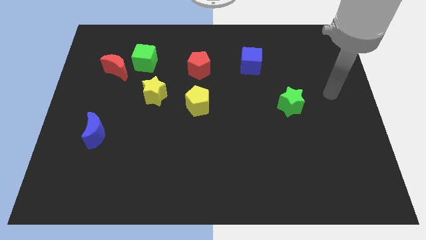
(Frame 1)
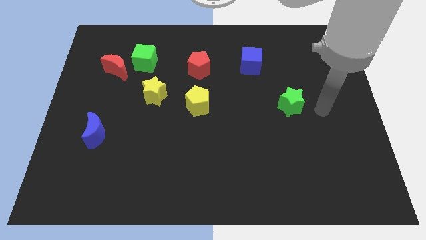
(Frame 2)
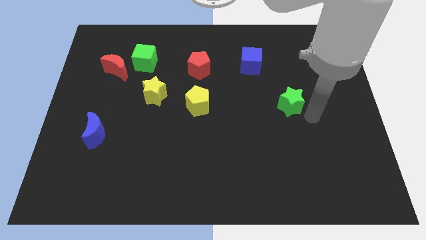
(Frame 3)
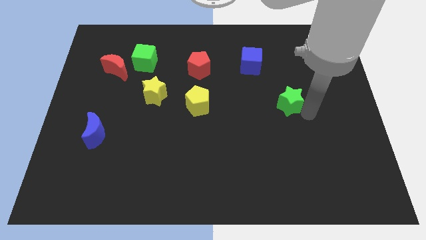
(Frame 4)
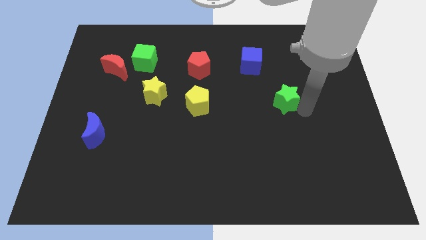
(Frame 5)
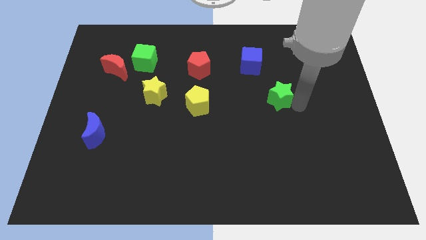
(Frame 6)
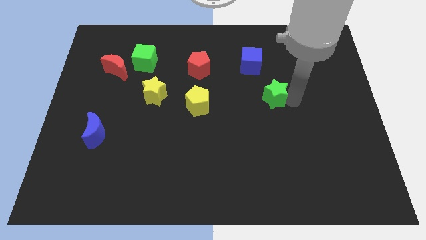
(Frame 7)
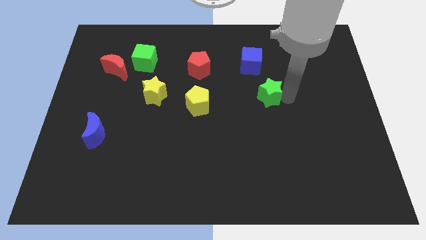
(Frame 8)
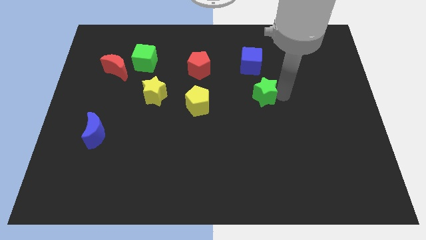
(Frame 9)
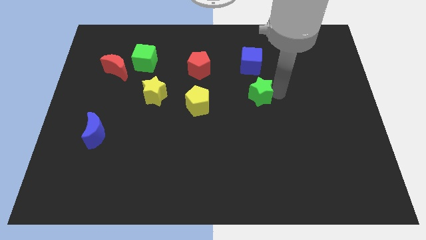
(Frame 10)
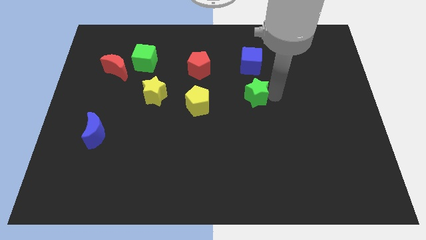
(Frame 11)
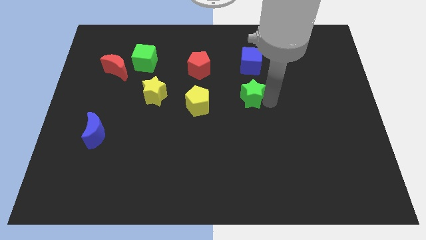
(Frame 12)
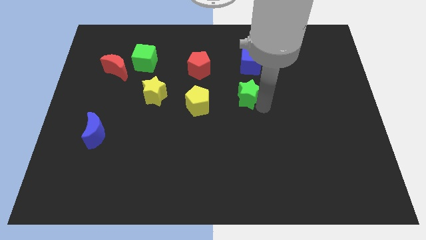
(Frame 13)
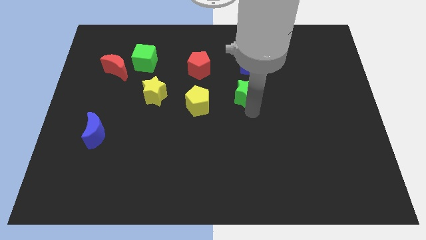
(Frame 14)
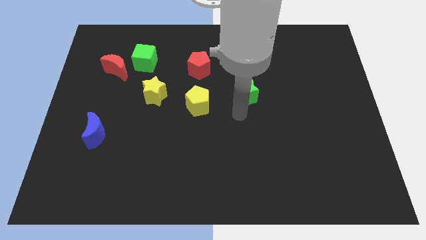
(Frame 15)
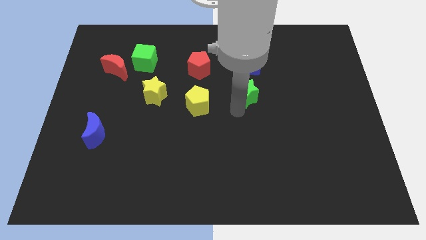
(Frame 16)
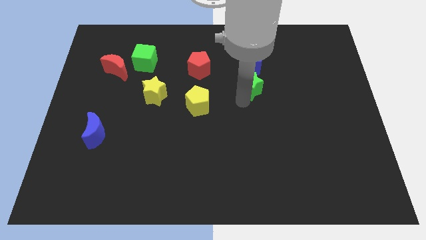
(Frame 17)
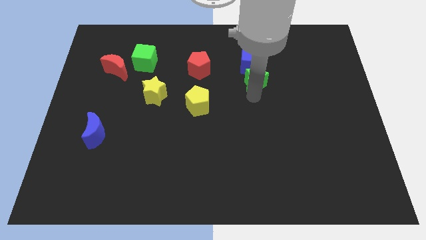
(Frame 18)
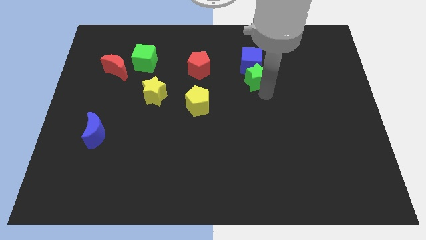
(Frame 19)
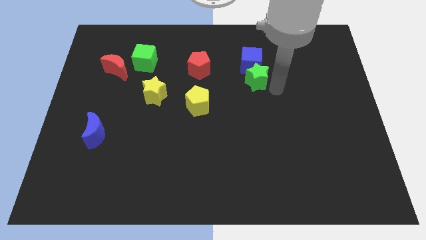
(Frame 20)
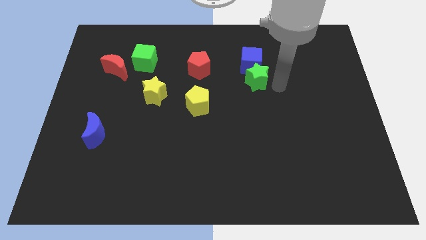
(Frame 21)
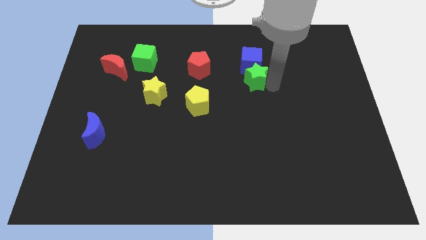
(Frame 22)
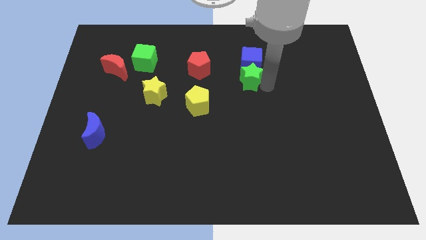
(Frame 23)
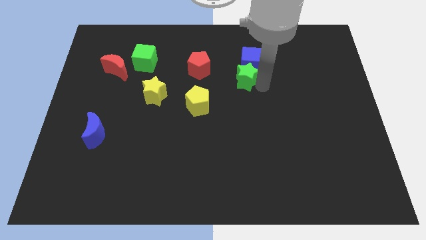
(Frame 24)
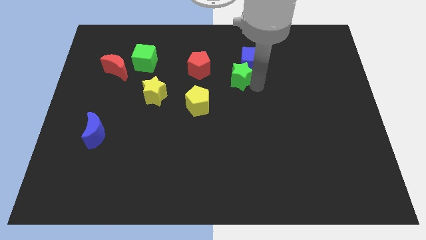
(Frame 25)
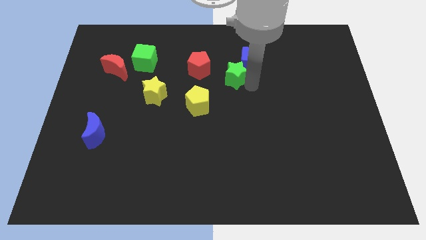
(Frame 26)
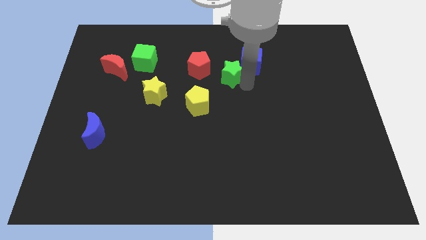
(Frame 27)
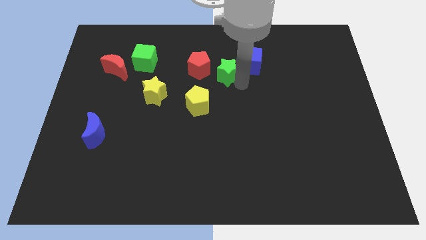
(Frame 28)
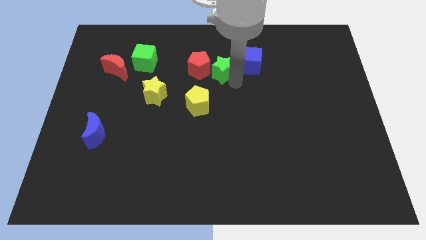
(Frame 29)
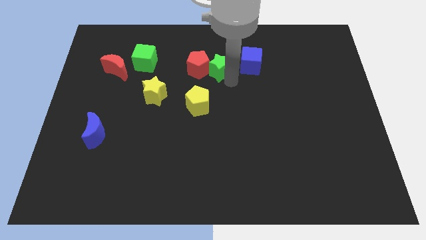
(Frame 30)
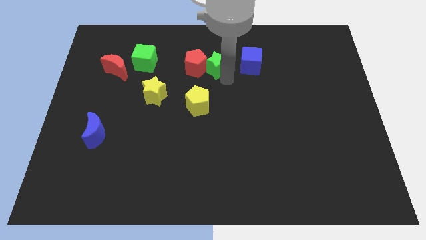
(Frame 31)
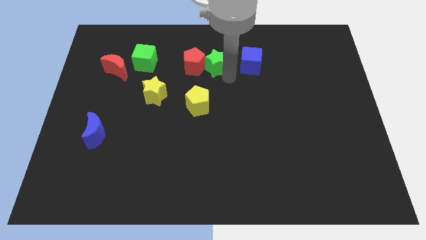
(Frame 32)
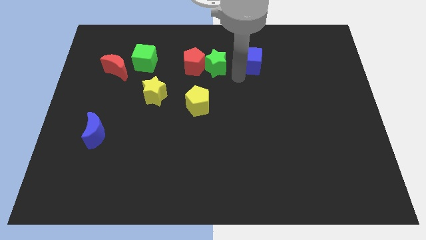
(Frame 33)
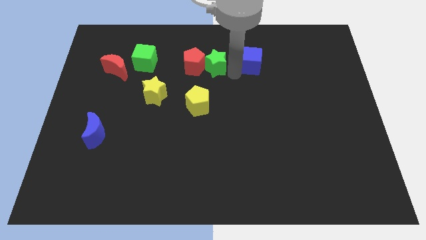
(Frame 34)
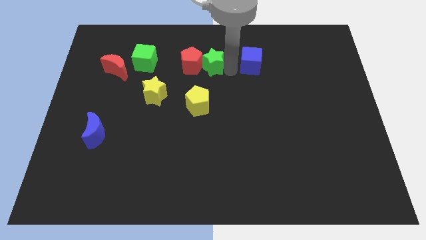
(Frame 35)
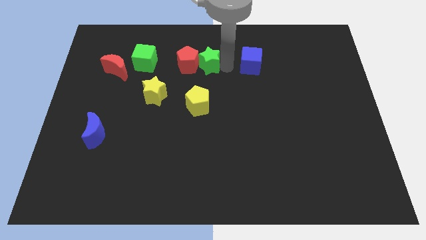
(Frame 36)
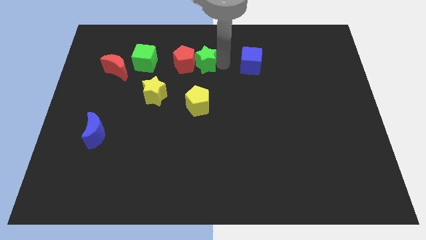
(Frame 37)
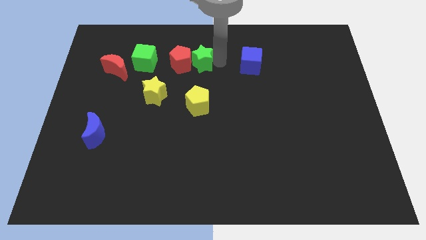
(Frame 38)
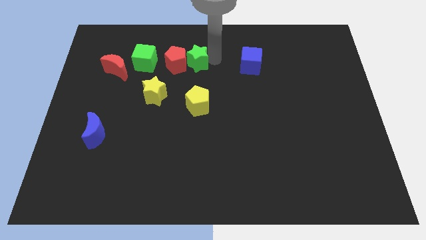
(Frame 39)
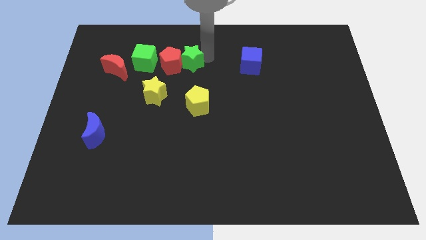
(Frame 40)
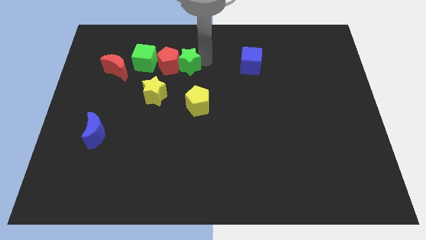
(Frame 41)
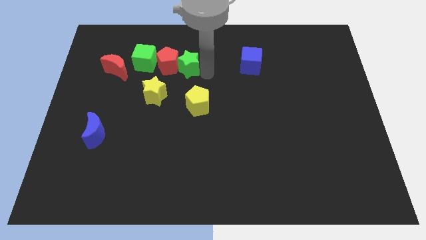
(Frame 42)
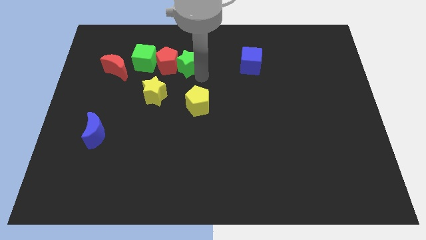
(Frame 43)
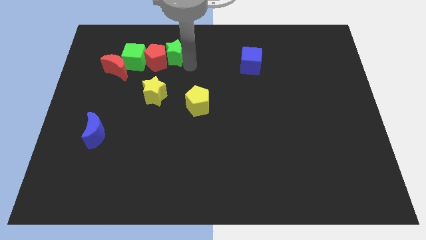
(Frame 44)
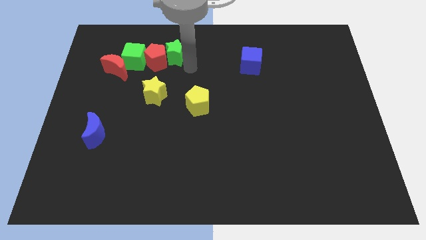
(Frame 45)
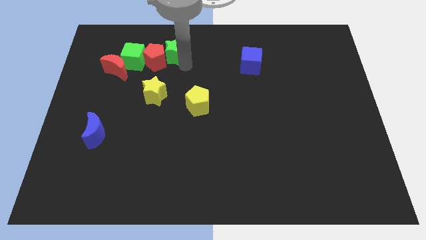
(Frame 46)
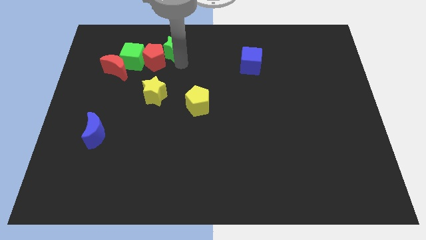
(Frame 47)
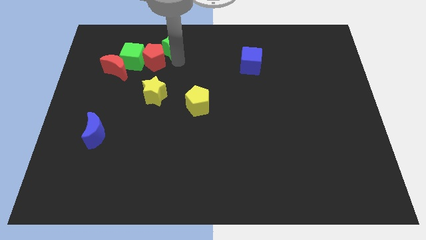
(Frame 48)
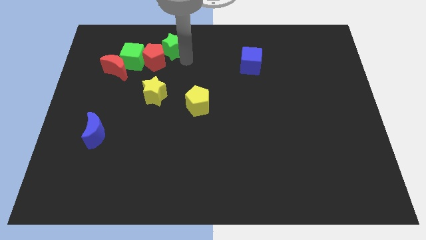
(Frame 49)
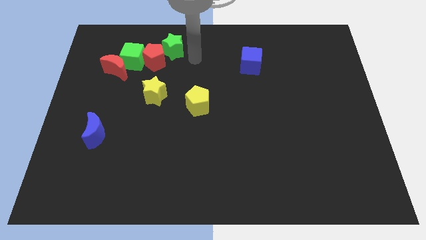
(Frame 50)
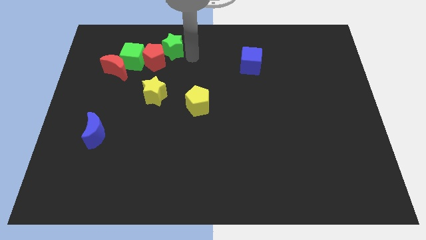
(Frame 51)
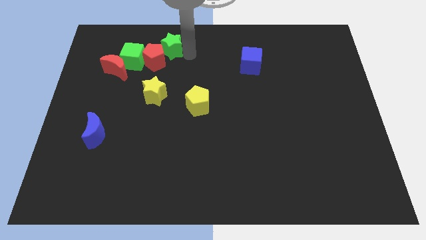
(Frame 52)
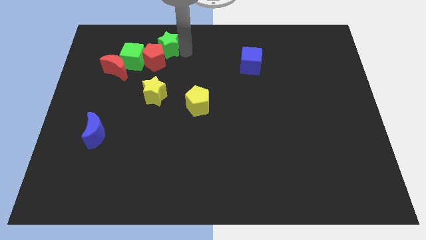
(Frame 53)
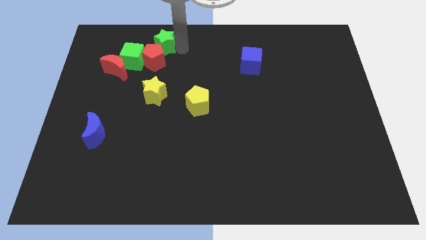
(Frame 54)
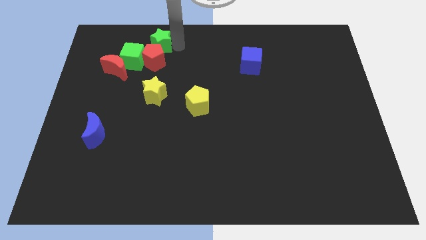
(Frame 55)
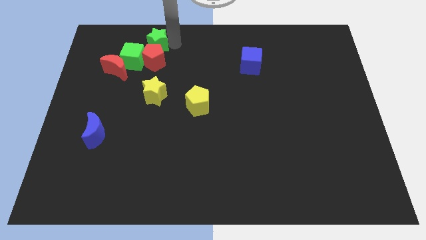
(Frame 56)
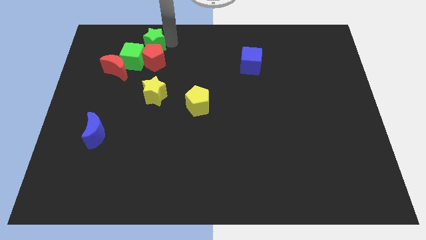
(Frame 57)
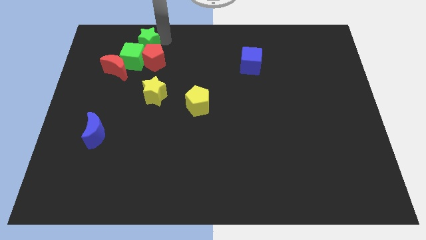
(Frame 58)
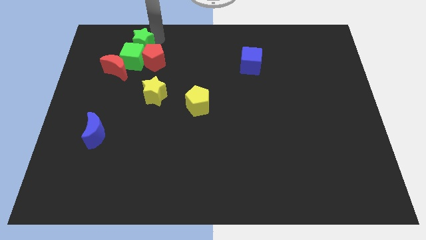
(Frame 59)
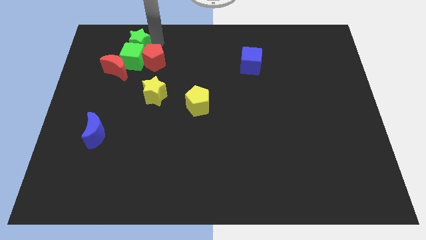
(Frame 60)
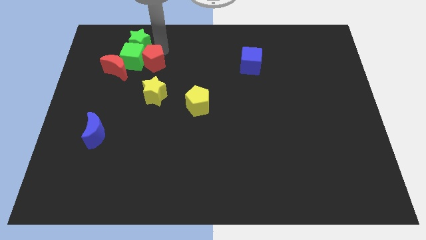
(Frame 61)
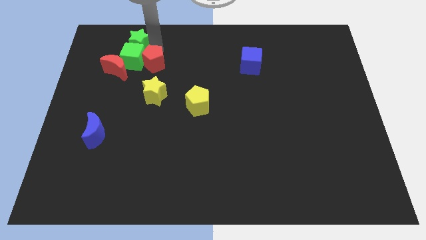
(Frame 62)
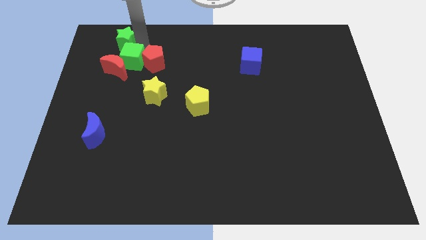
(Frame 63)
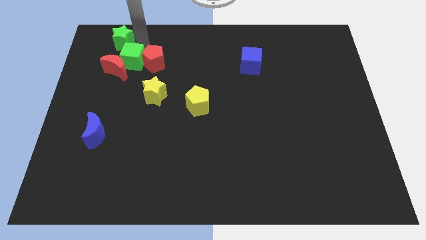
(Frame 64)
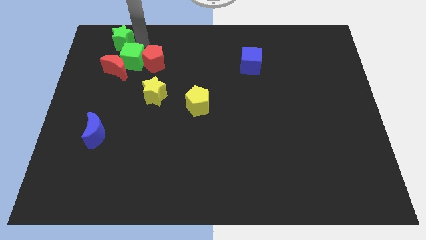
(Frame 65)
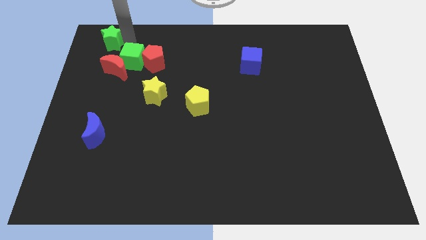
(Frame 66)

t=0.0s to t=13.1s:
slide the green star to the top left of the board

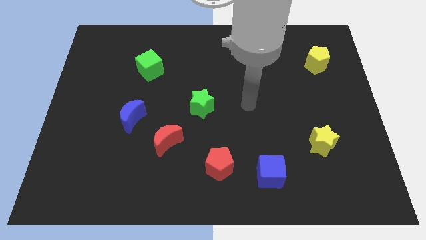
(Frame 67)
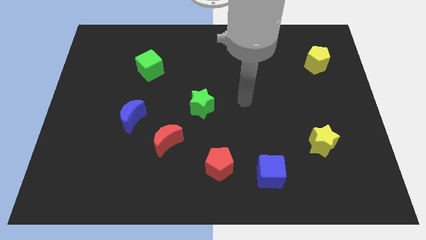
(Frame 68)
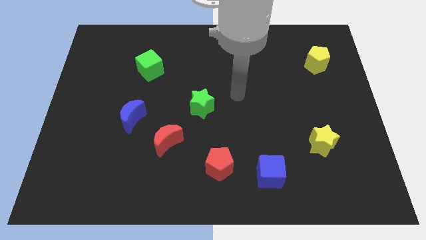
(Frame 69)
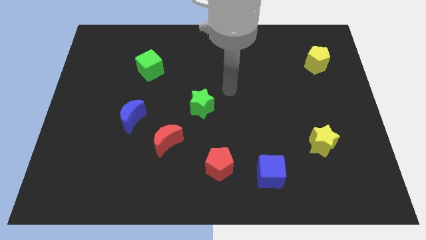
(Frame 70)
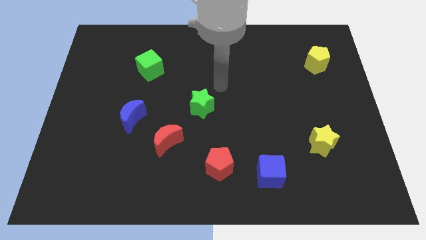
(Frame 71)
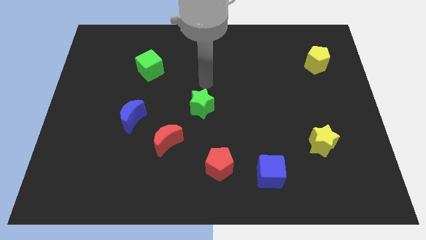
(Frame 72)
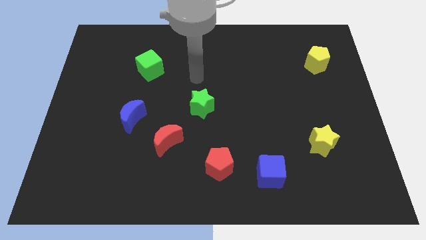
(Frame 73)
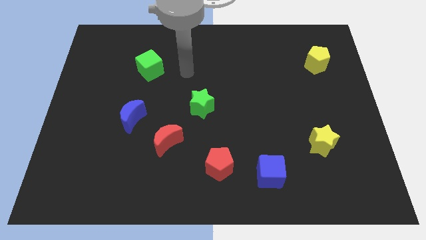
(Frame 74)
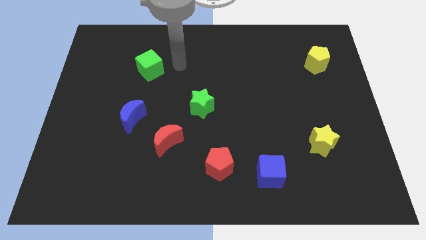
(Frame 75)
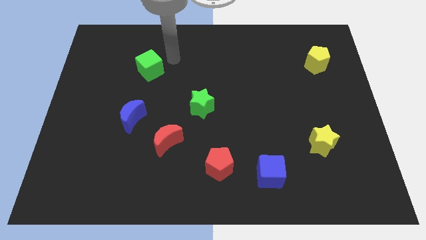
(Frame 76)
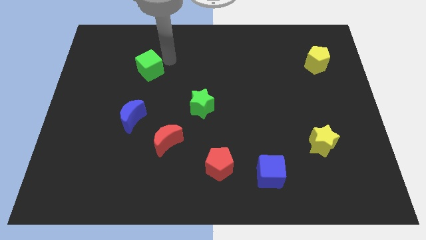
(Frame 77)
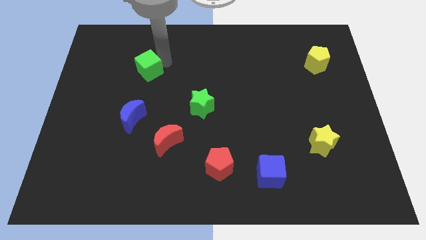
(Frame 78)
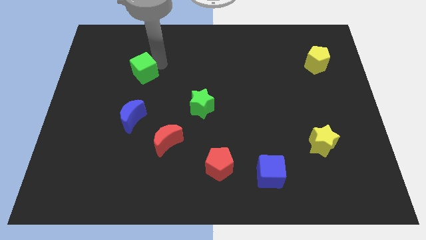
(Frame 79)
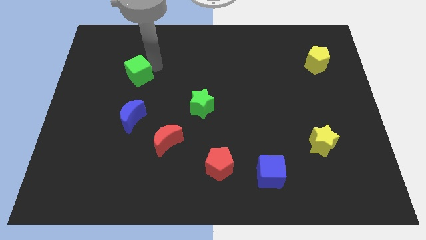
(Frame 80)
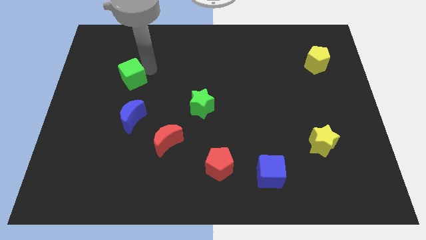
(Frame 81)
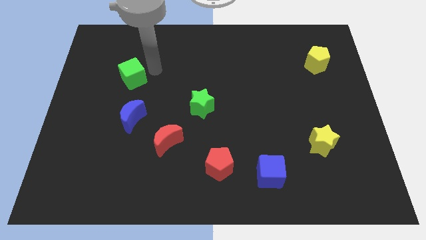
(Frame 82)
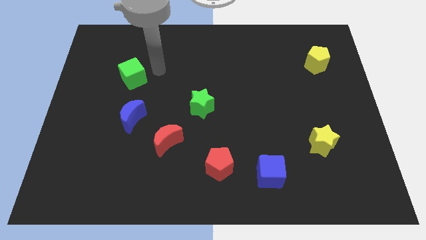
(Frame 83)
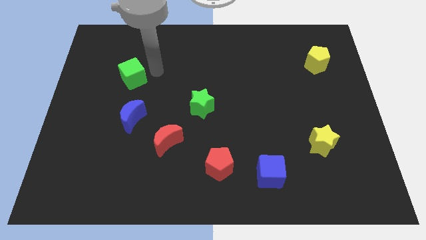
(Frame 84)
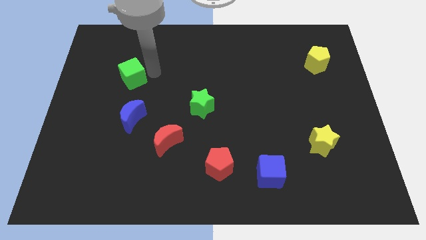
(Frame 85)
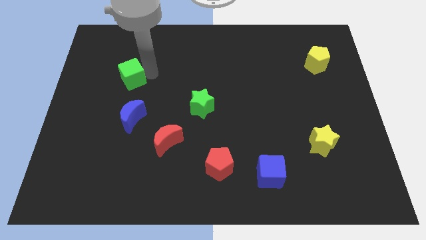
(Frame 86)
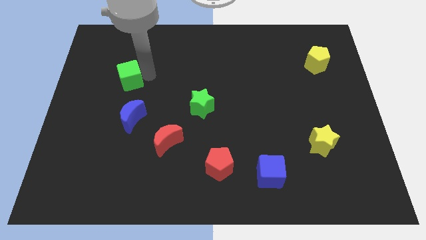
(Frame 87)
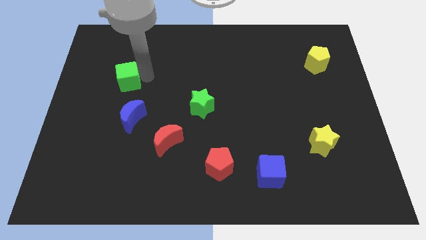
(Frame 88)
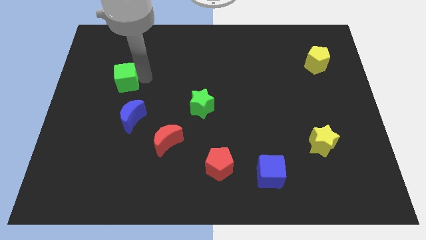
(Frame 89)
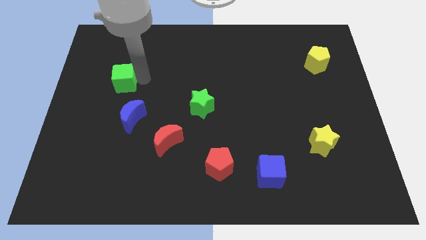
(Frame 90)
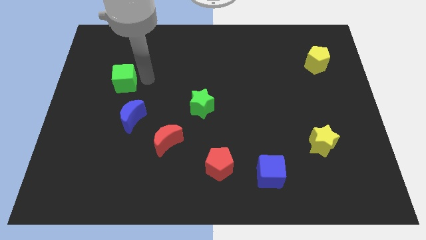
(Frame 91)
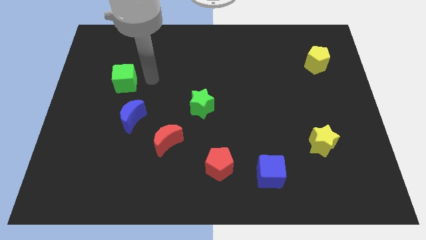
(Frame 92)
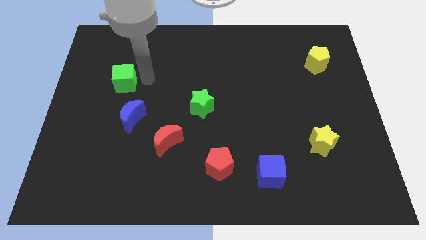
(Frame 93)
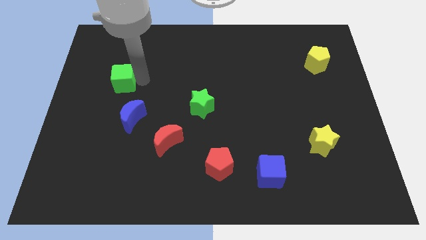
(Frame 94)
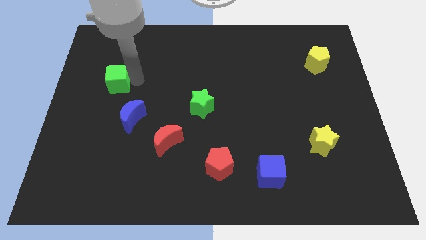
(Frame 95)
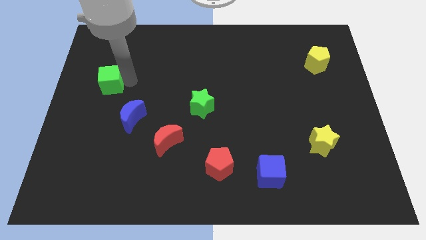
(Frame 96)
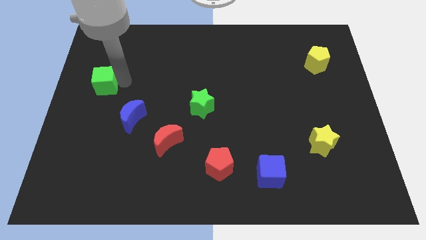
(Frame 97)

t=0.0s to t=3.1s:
push the green cube to the center left
